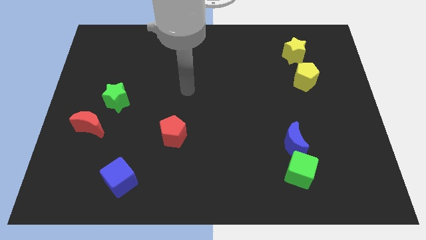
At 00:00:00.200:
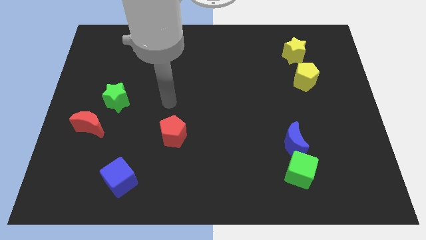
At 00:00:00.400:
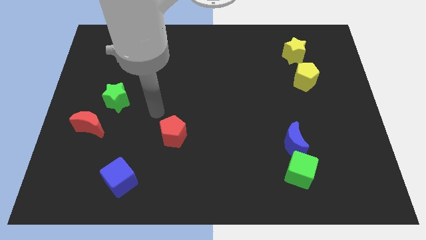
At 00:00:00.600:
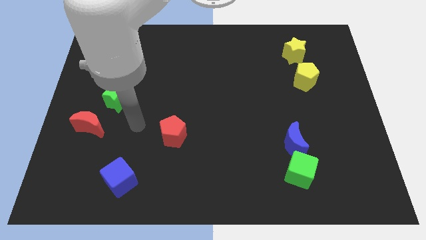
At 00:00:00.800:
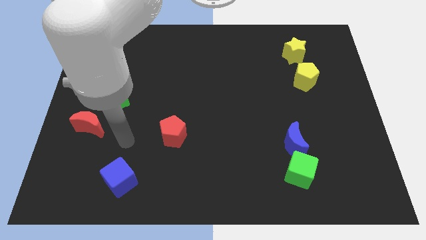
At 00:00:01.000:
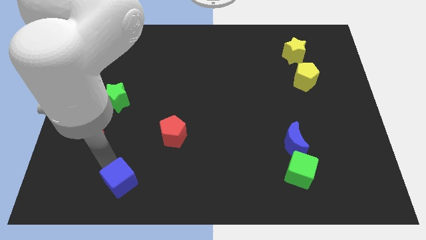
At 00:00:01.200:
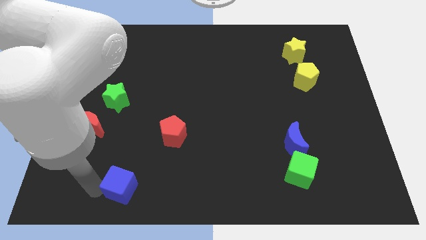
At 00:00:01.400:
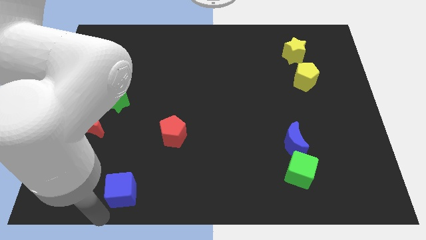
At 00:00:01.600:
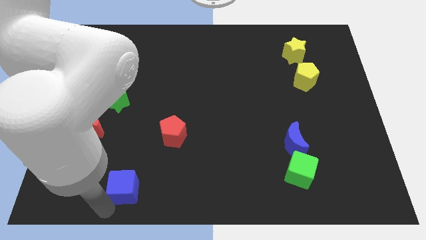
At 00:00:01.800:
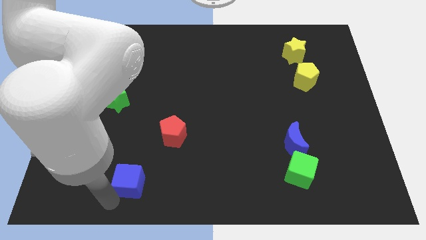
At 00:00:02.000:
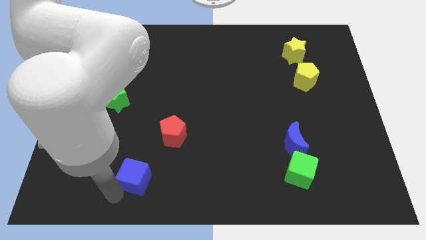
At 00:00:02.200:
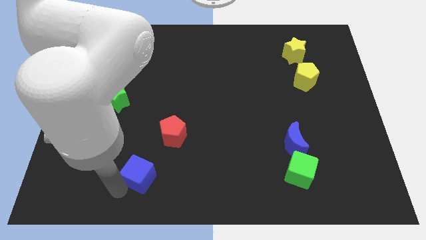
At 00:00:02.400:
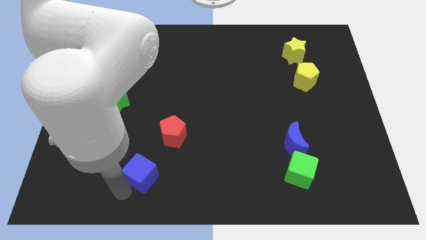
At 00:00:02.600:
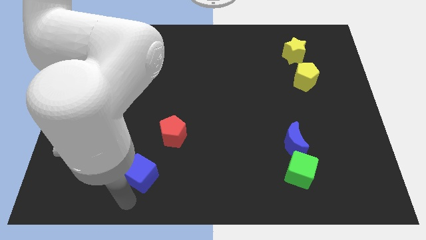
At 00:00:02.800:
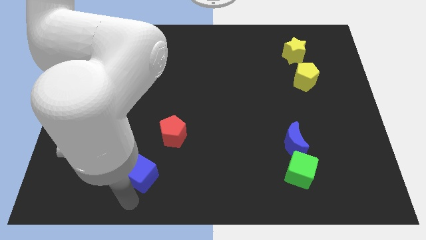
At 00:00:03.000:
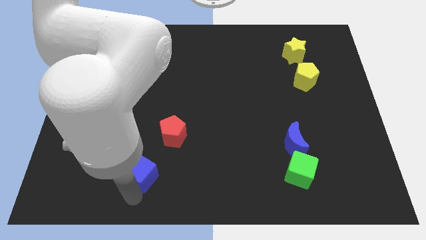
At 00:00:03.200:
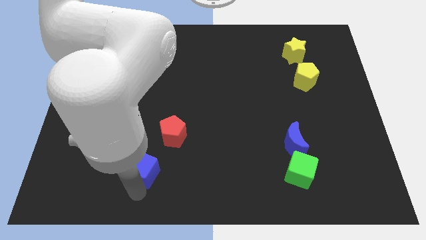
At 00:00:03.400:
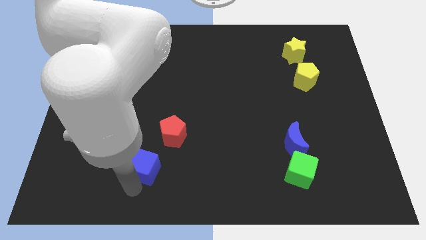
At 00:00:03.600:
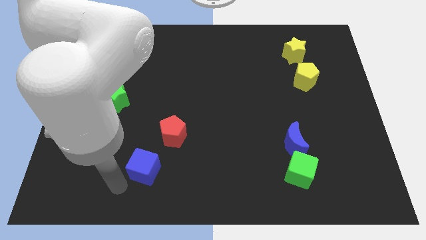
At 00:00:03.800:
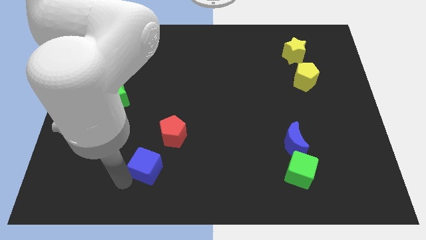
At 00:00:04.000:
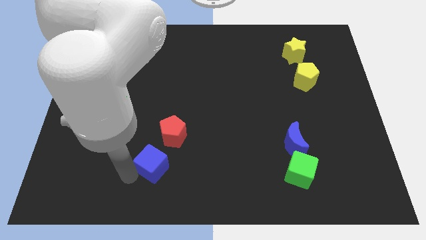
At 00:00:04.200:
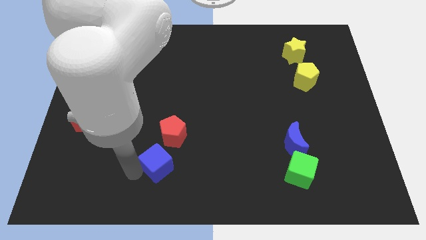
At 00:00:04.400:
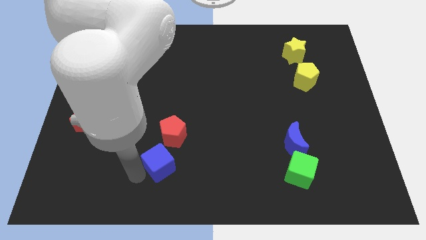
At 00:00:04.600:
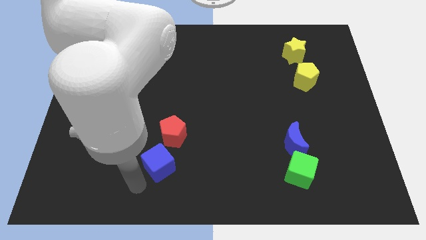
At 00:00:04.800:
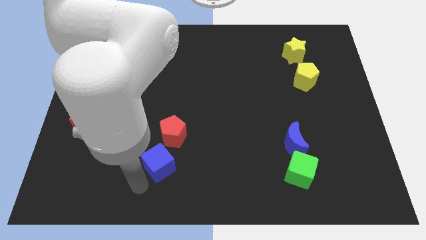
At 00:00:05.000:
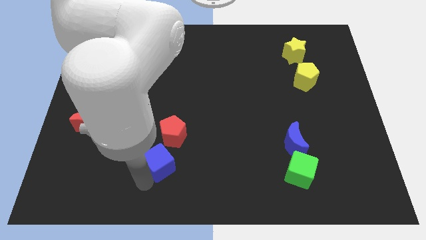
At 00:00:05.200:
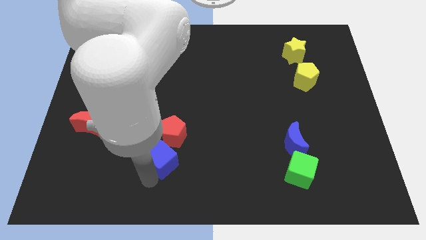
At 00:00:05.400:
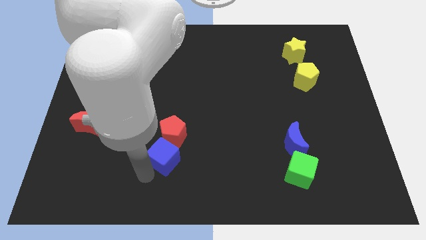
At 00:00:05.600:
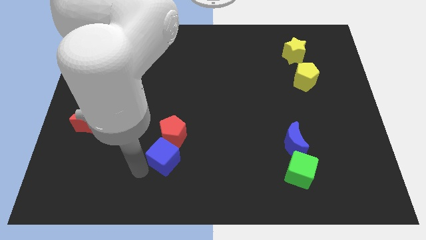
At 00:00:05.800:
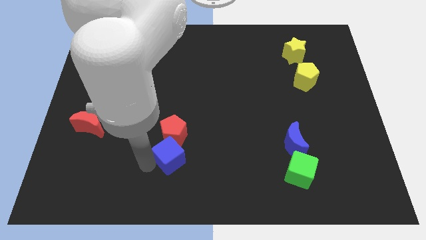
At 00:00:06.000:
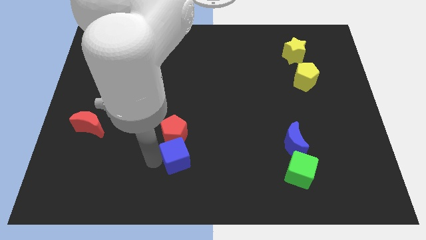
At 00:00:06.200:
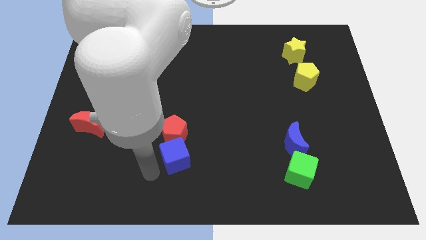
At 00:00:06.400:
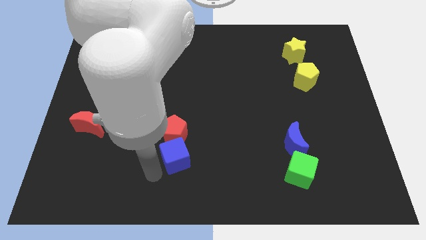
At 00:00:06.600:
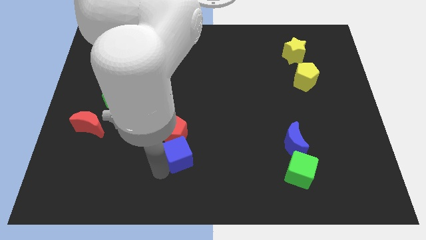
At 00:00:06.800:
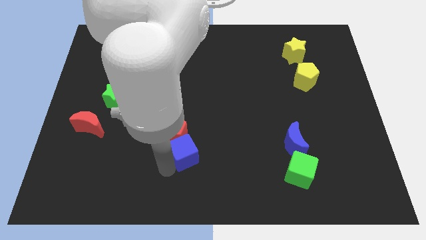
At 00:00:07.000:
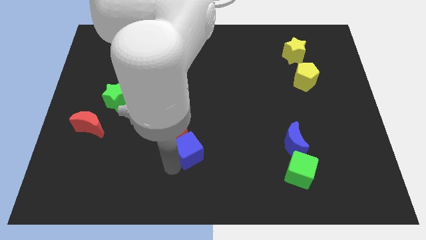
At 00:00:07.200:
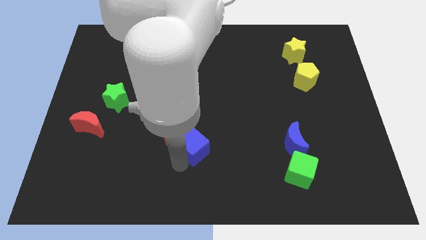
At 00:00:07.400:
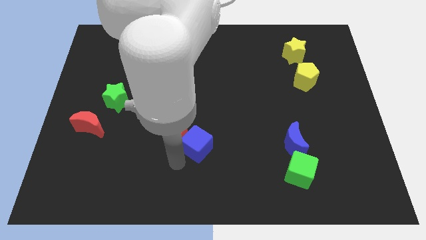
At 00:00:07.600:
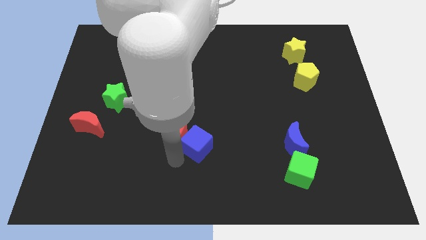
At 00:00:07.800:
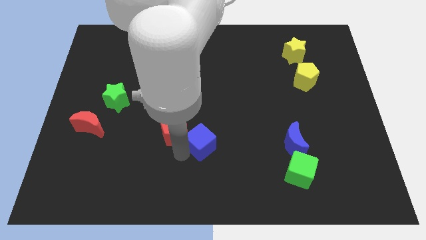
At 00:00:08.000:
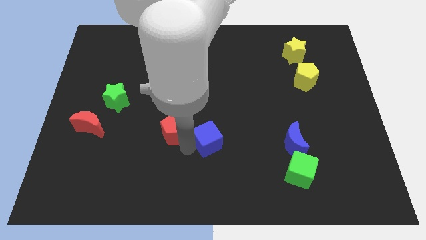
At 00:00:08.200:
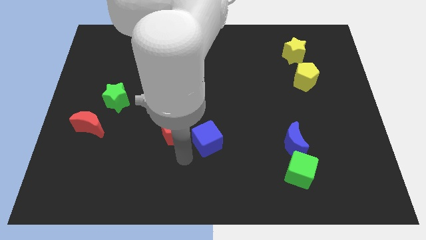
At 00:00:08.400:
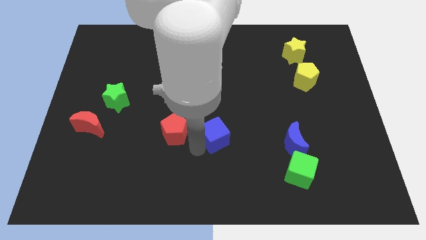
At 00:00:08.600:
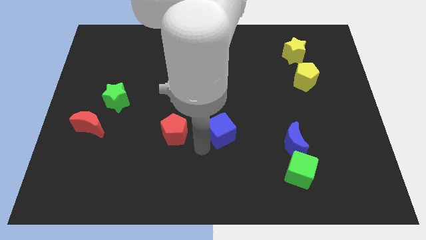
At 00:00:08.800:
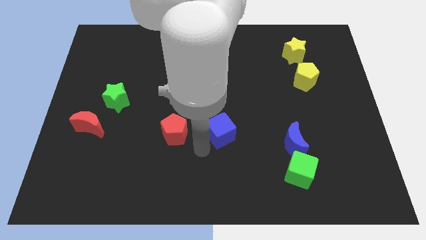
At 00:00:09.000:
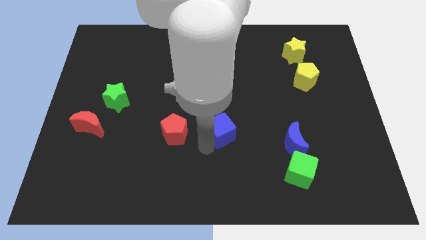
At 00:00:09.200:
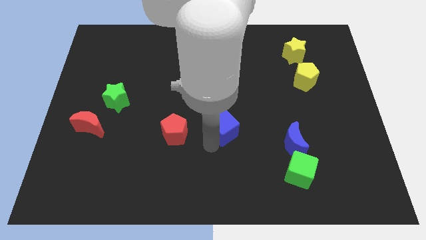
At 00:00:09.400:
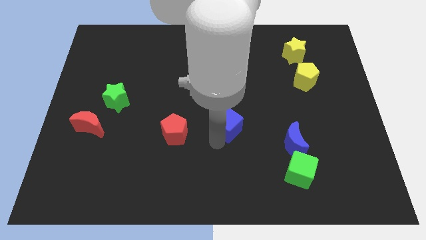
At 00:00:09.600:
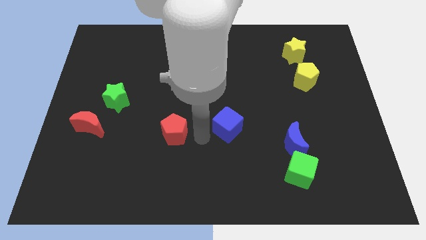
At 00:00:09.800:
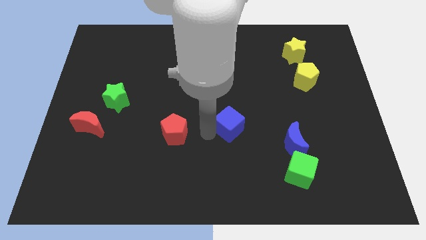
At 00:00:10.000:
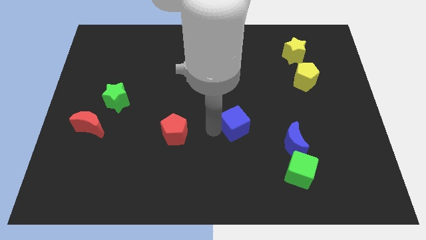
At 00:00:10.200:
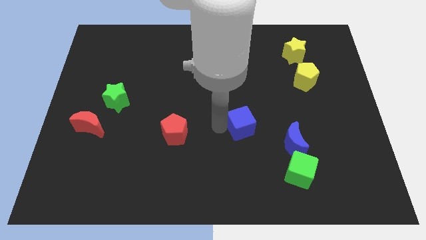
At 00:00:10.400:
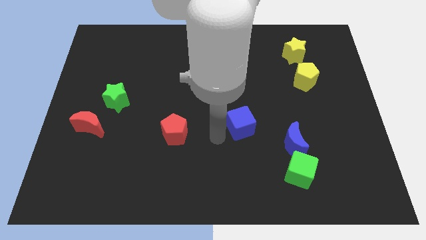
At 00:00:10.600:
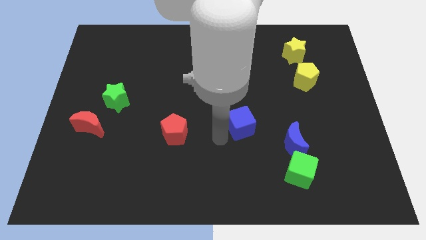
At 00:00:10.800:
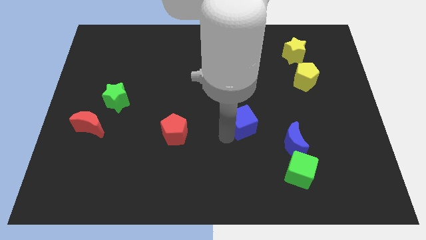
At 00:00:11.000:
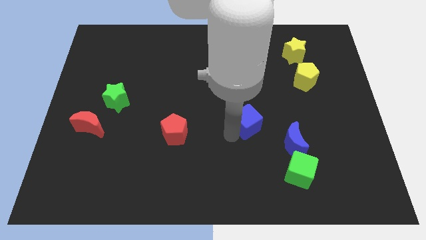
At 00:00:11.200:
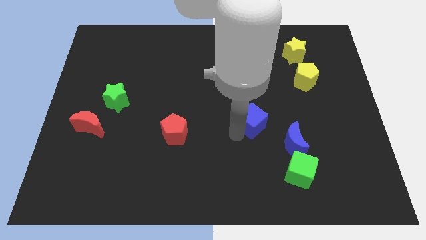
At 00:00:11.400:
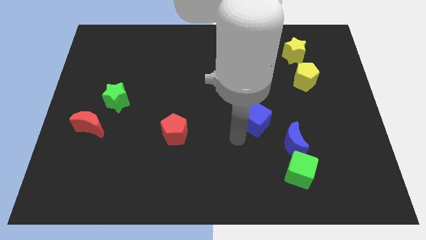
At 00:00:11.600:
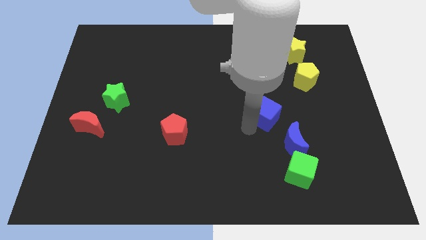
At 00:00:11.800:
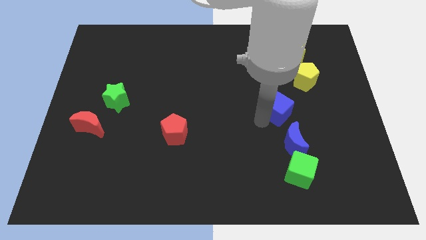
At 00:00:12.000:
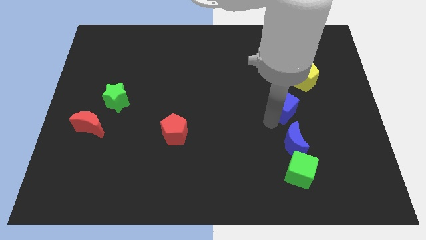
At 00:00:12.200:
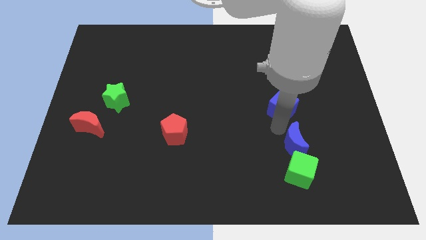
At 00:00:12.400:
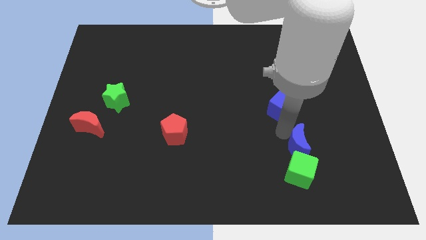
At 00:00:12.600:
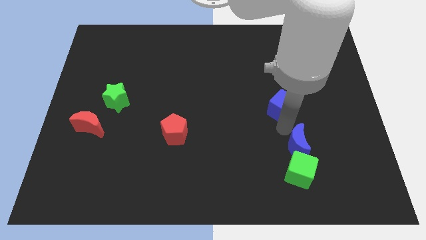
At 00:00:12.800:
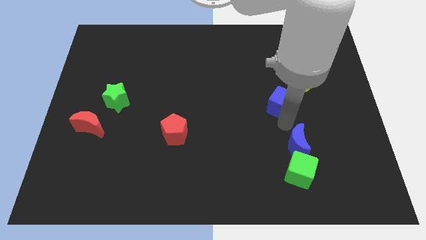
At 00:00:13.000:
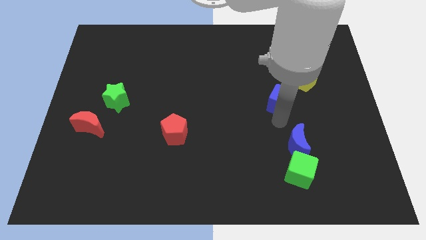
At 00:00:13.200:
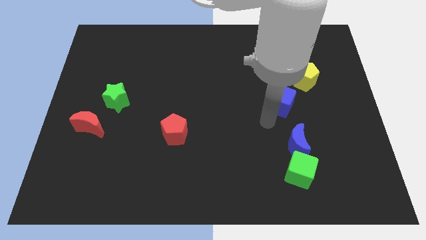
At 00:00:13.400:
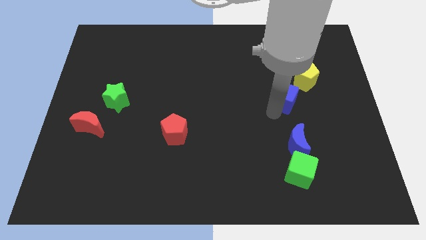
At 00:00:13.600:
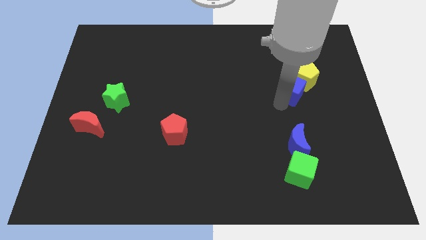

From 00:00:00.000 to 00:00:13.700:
slide the blue cube next to the yellow pentagon

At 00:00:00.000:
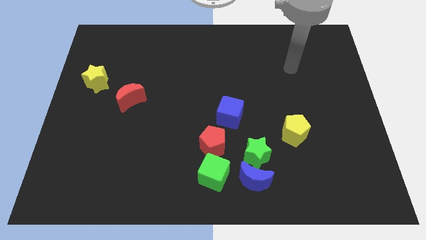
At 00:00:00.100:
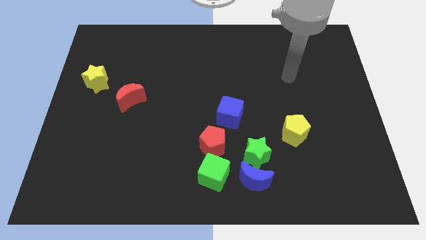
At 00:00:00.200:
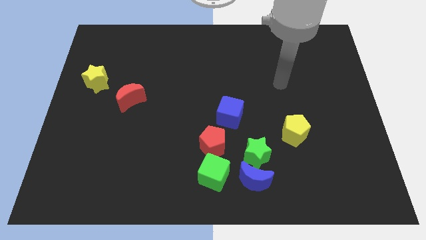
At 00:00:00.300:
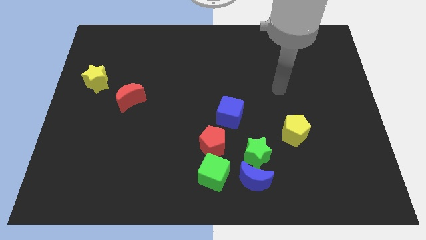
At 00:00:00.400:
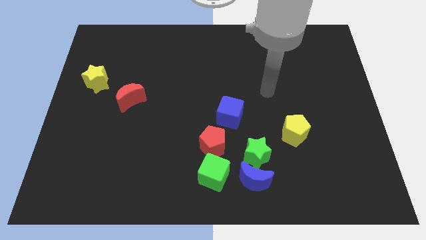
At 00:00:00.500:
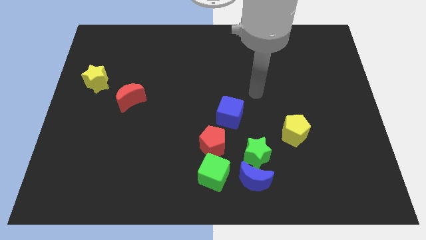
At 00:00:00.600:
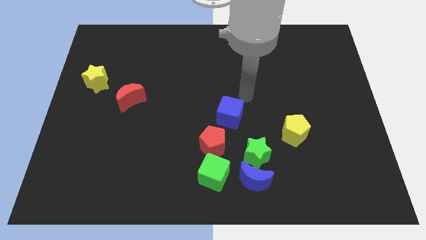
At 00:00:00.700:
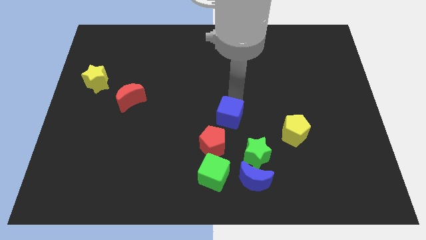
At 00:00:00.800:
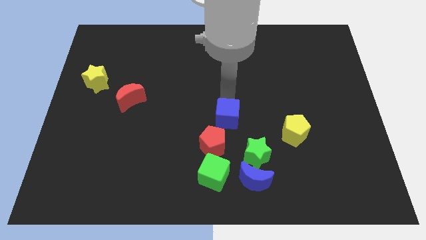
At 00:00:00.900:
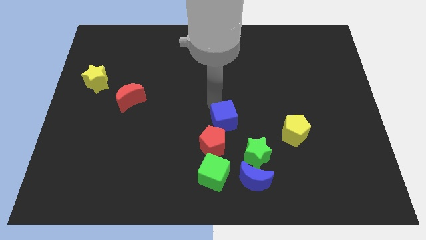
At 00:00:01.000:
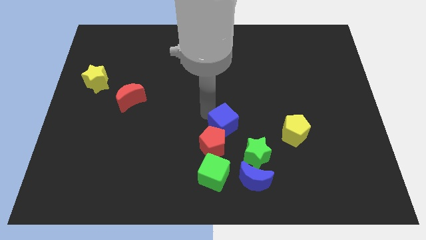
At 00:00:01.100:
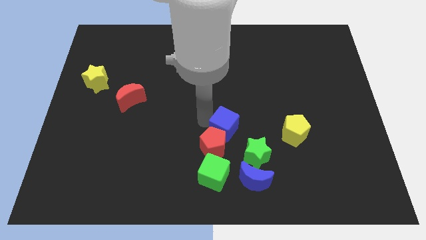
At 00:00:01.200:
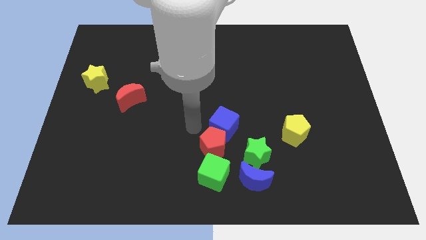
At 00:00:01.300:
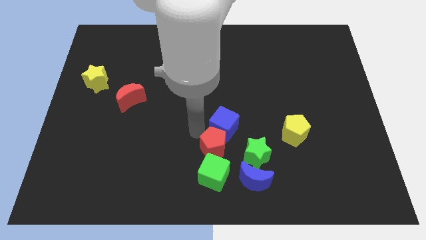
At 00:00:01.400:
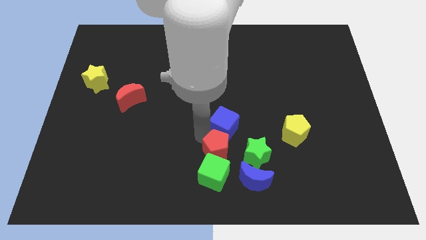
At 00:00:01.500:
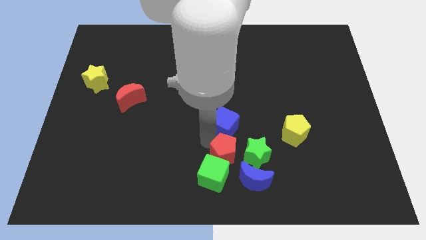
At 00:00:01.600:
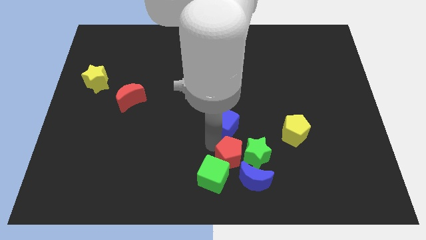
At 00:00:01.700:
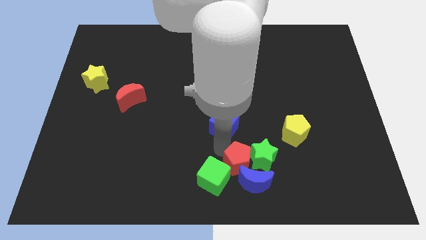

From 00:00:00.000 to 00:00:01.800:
slide the red pentagon to the blue moon
